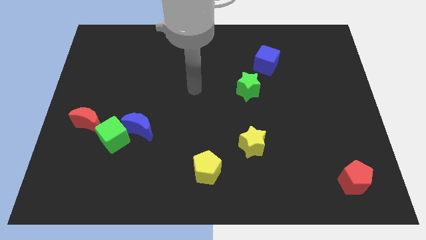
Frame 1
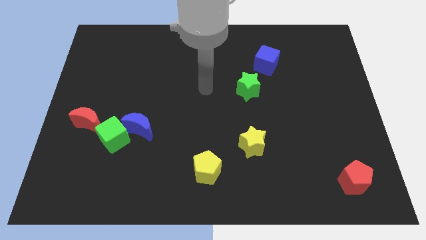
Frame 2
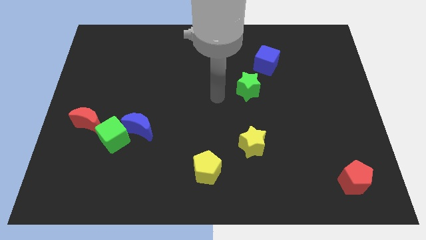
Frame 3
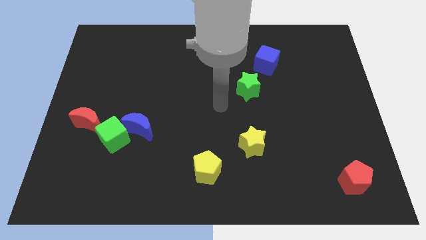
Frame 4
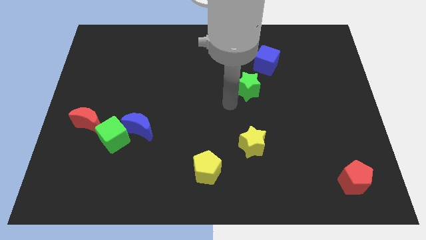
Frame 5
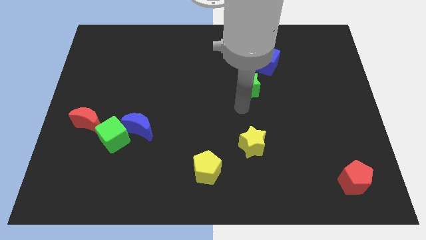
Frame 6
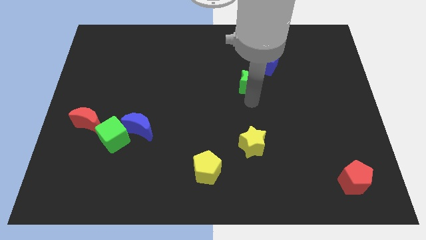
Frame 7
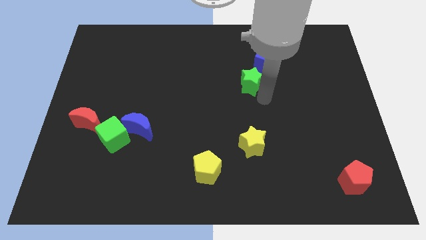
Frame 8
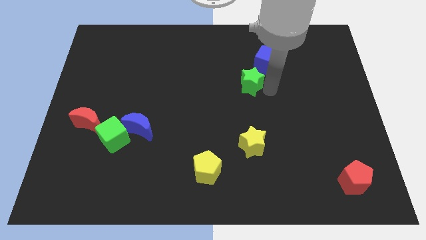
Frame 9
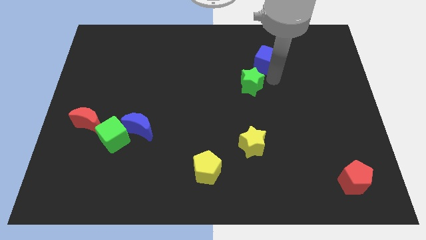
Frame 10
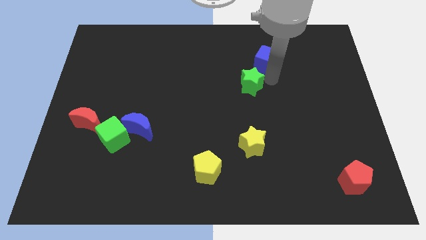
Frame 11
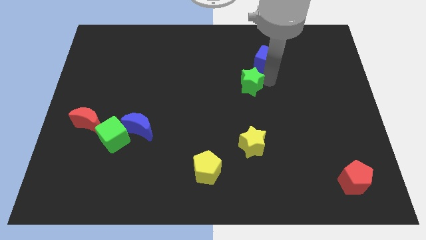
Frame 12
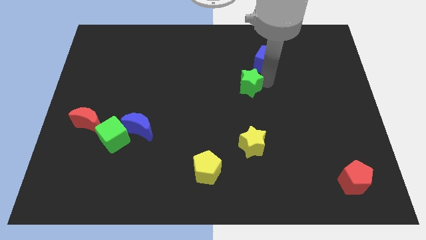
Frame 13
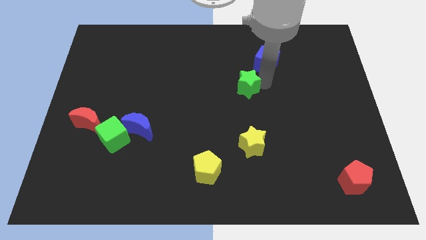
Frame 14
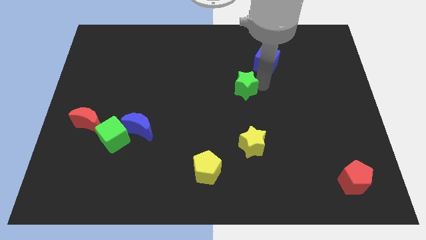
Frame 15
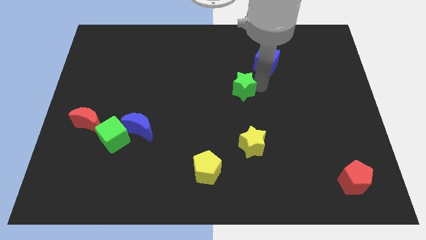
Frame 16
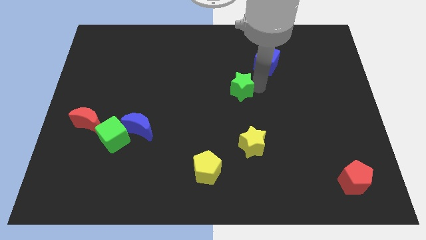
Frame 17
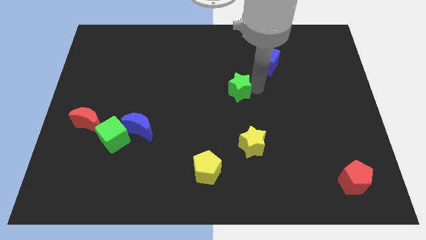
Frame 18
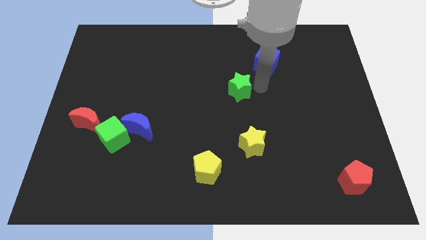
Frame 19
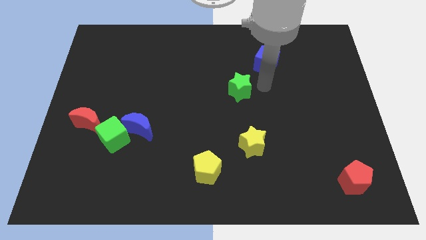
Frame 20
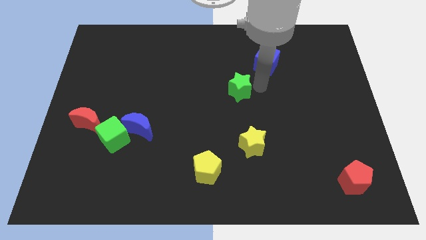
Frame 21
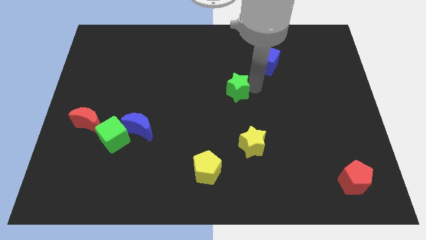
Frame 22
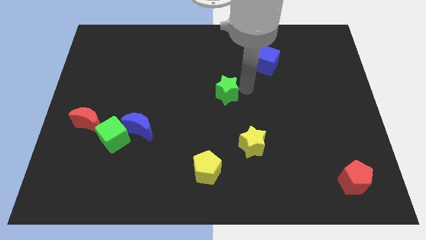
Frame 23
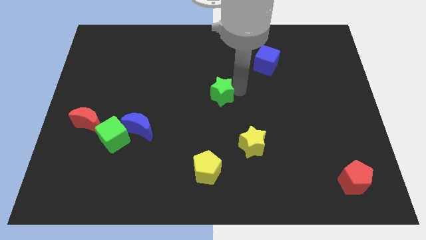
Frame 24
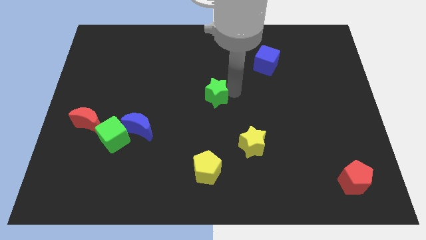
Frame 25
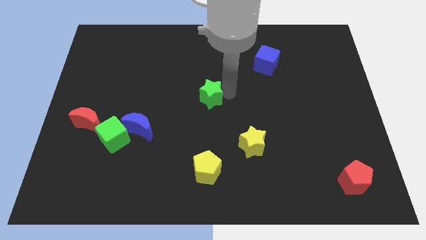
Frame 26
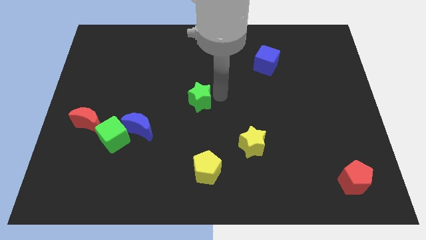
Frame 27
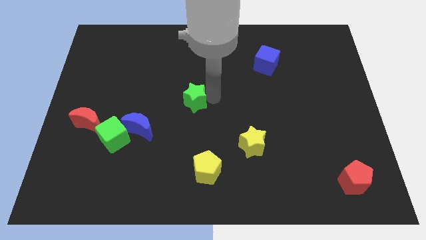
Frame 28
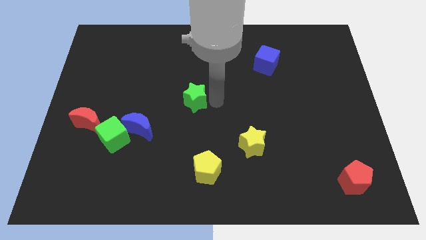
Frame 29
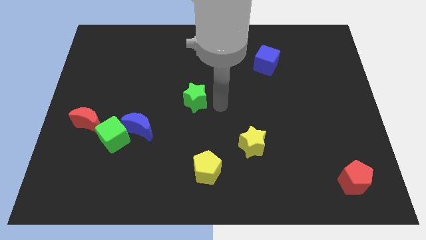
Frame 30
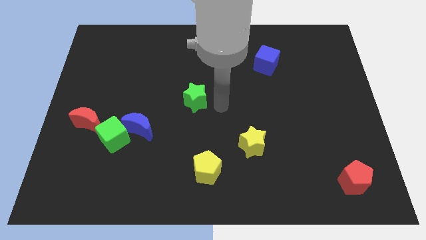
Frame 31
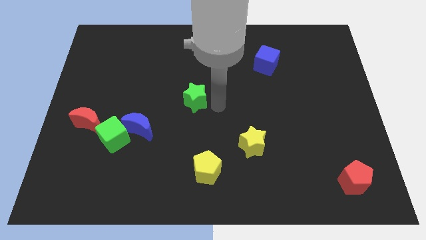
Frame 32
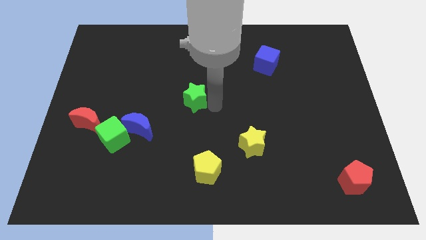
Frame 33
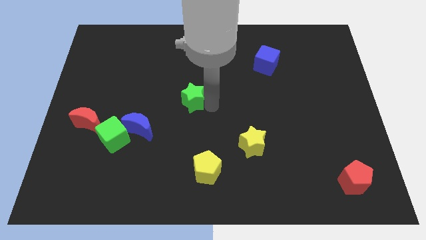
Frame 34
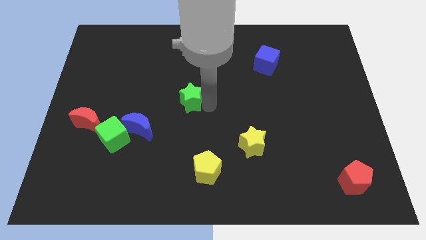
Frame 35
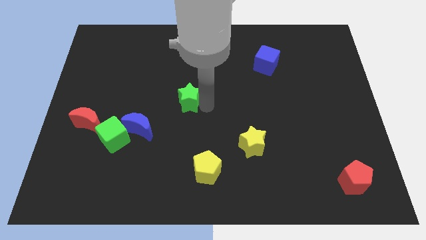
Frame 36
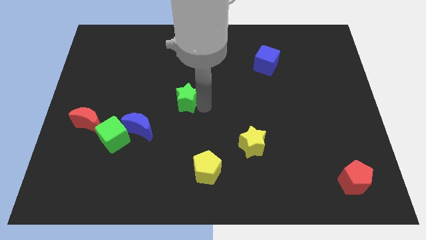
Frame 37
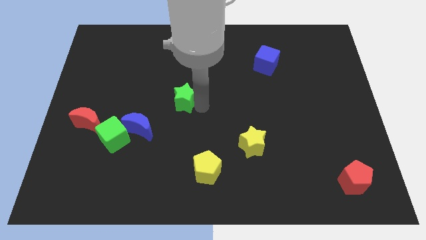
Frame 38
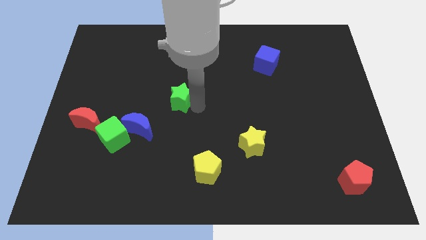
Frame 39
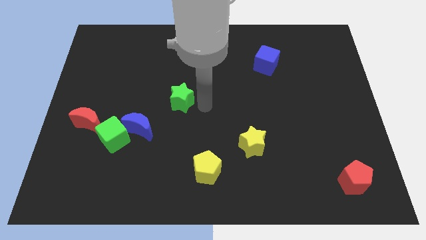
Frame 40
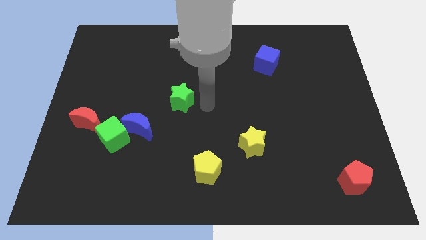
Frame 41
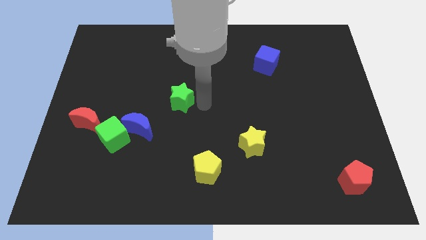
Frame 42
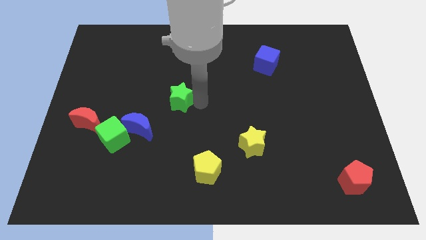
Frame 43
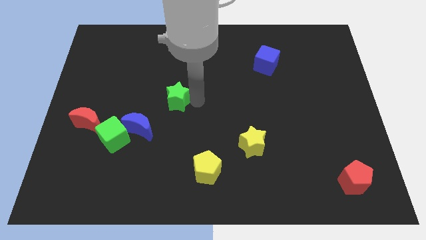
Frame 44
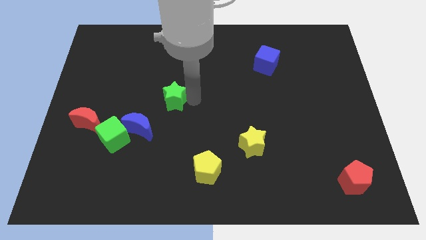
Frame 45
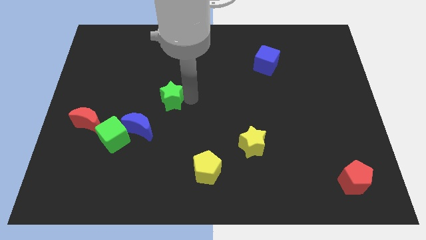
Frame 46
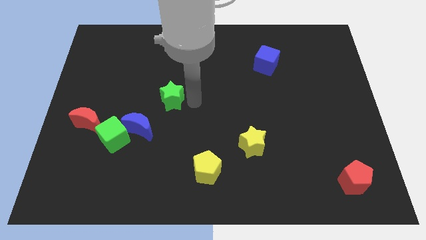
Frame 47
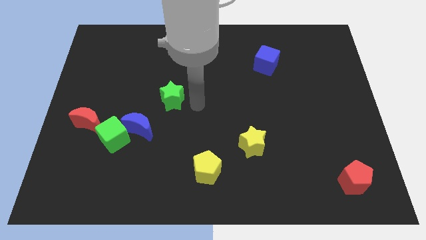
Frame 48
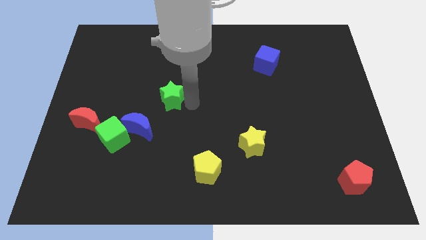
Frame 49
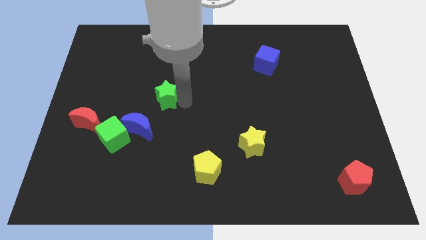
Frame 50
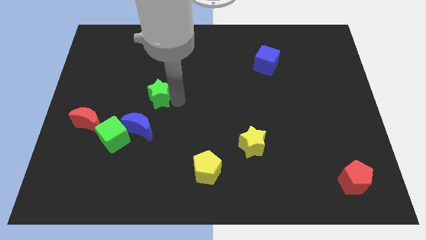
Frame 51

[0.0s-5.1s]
slide the green star above the blue moon

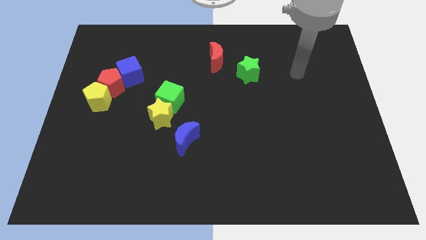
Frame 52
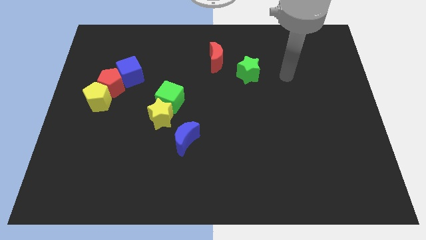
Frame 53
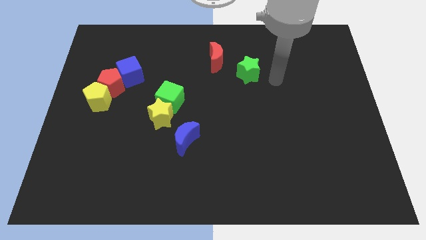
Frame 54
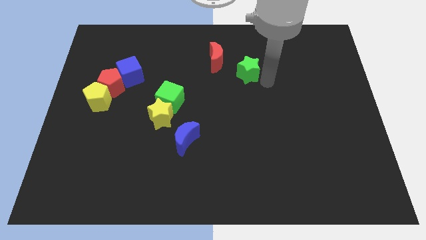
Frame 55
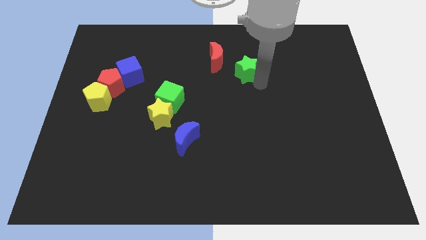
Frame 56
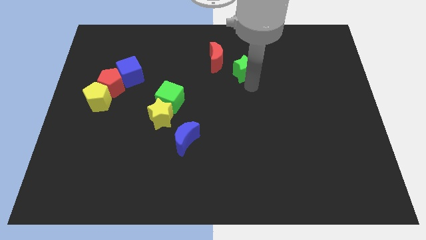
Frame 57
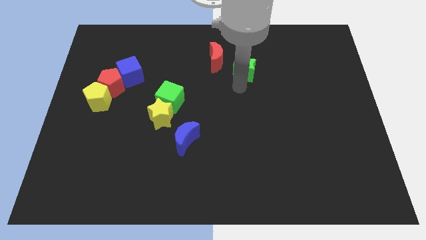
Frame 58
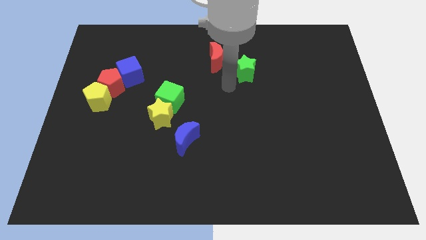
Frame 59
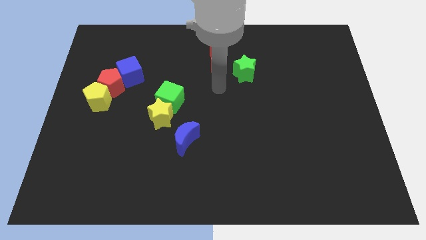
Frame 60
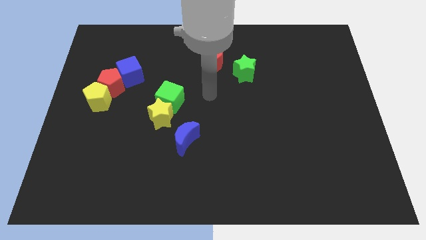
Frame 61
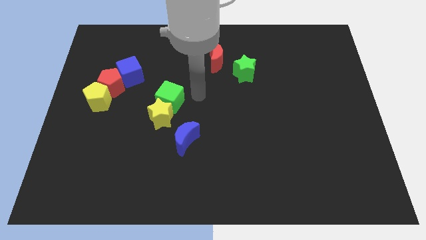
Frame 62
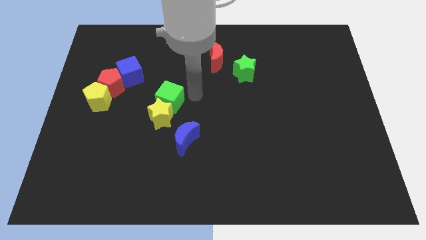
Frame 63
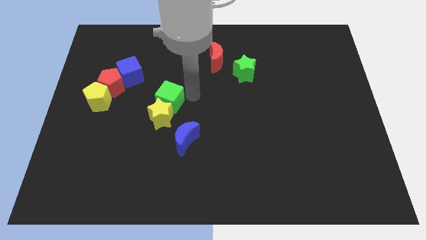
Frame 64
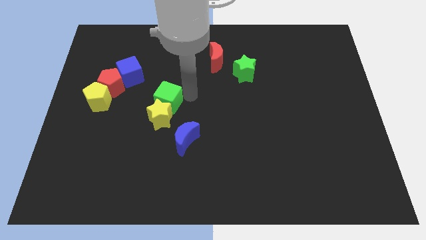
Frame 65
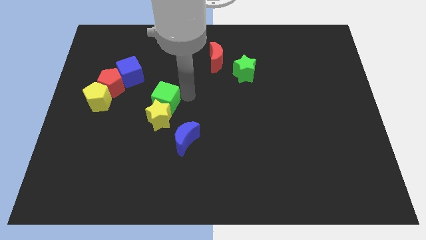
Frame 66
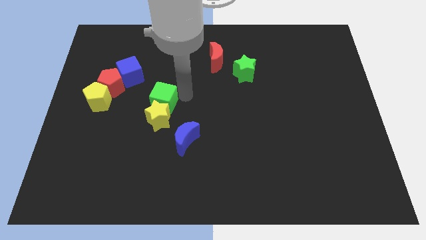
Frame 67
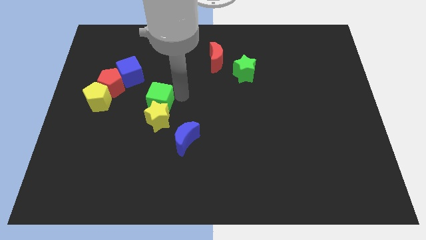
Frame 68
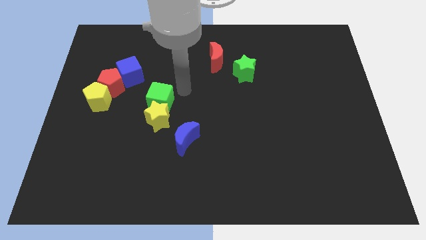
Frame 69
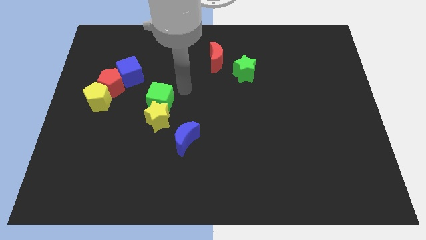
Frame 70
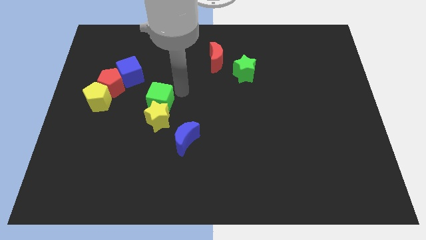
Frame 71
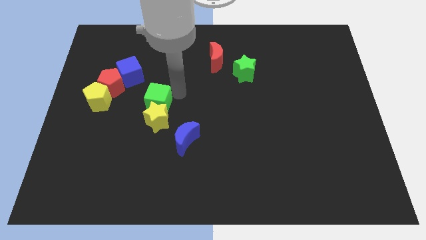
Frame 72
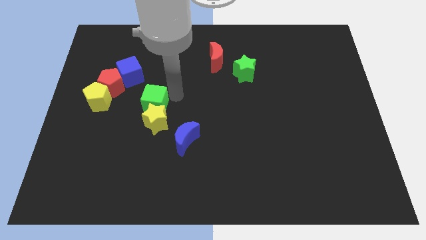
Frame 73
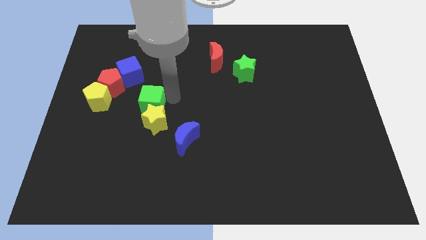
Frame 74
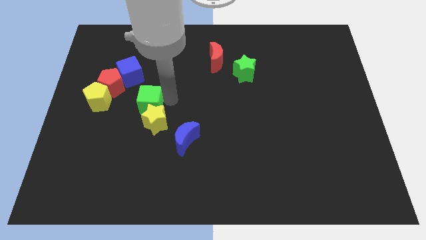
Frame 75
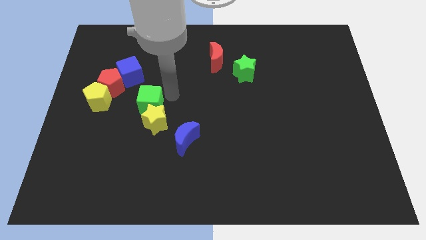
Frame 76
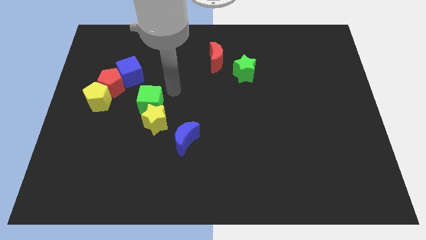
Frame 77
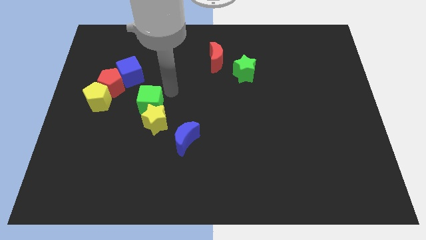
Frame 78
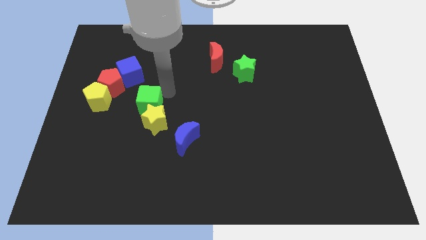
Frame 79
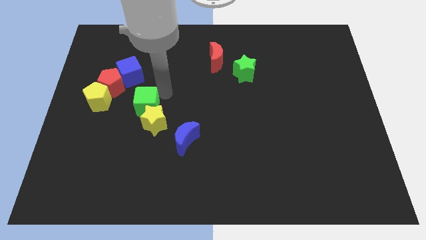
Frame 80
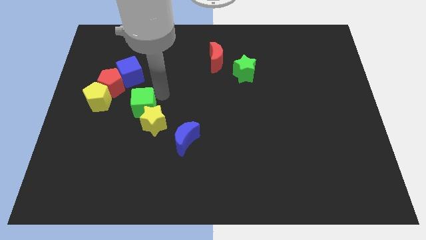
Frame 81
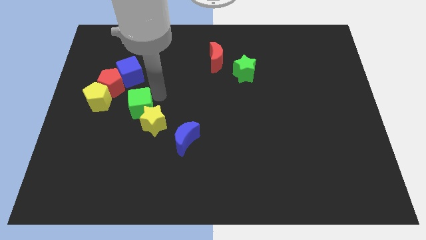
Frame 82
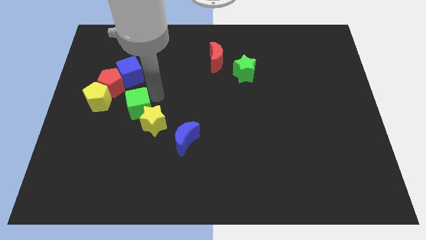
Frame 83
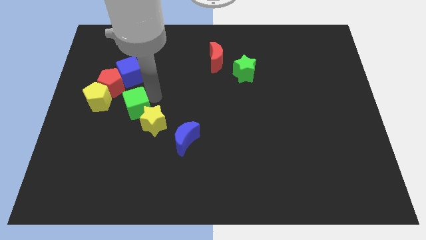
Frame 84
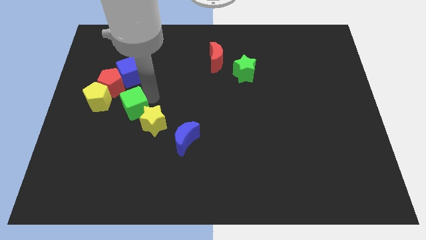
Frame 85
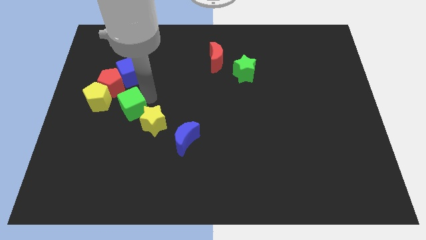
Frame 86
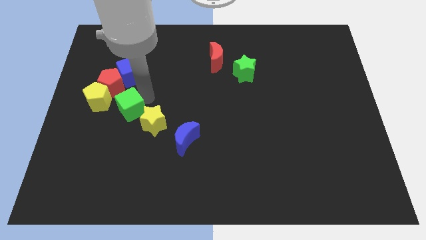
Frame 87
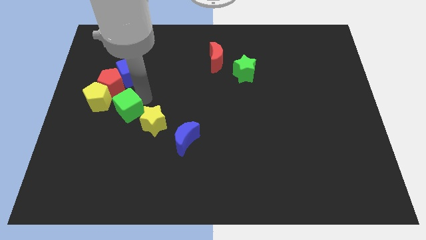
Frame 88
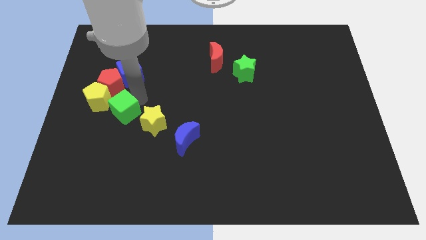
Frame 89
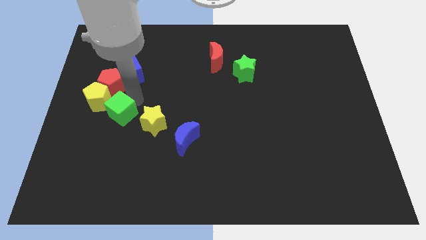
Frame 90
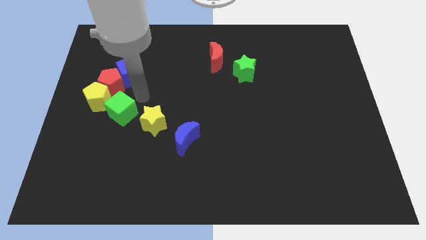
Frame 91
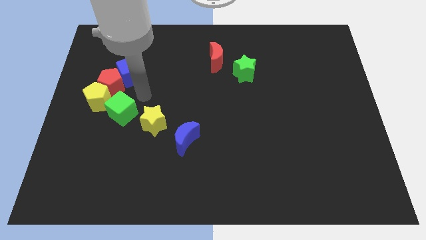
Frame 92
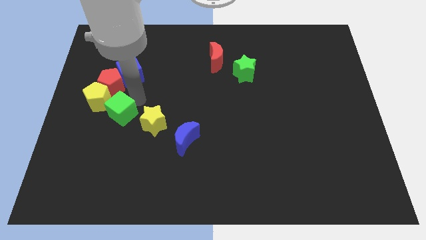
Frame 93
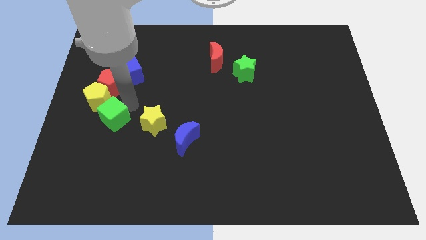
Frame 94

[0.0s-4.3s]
push the green cube to the bottom of the yellow pentagon
